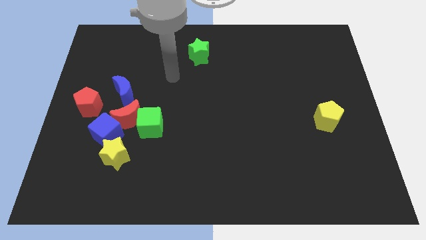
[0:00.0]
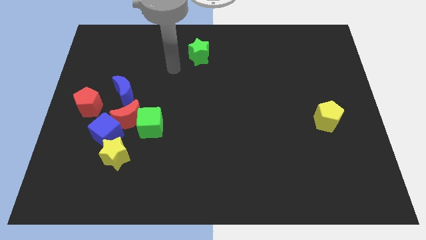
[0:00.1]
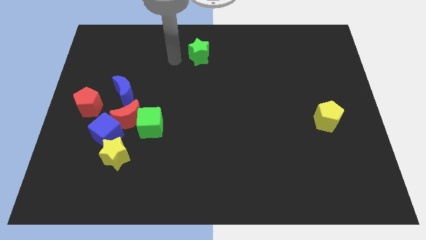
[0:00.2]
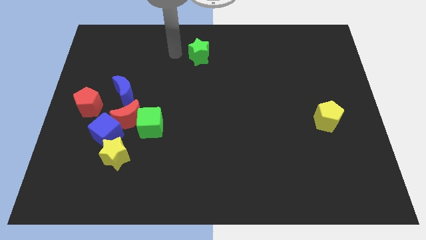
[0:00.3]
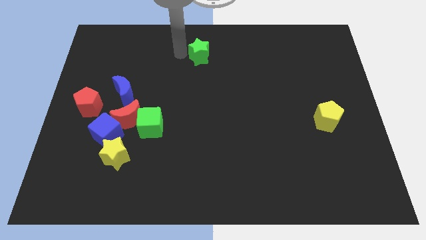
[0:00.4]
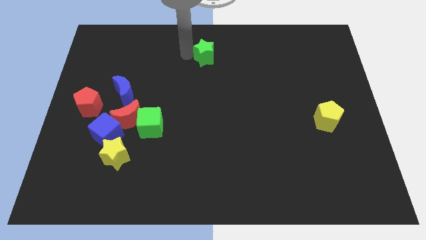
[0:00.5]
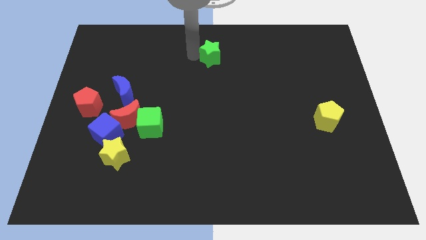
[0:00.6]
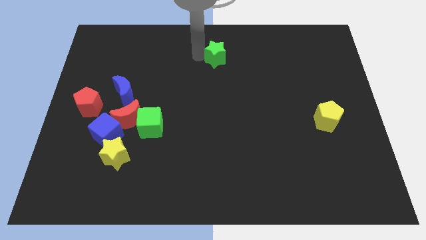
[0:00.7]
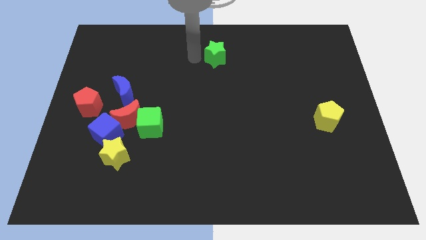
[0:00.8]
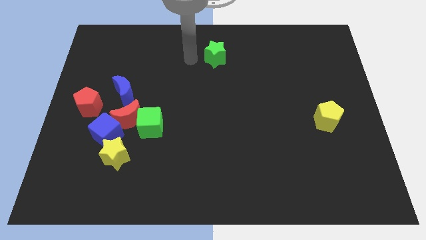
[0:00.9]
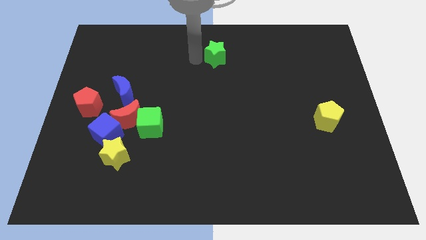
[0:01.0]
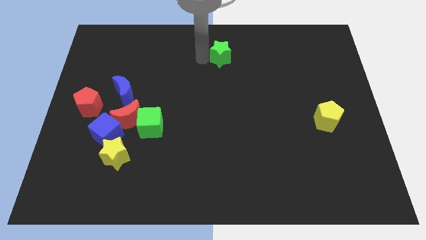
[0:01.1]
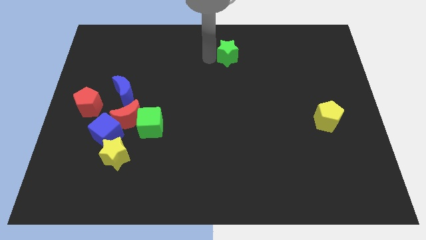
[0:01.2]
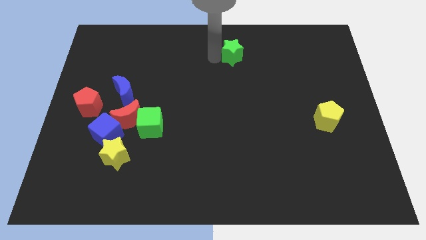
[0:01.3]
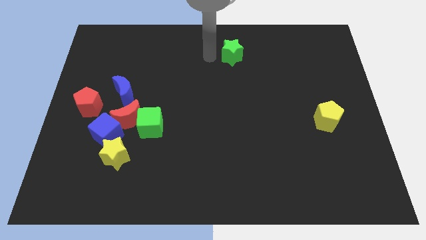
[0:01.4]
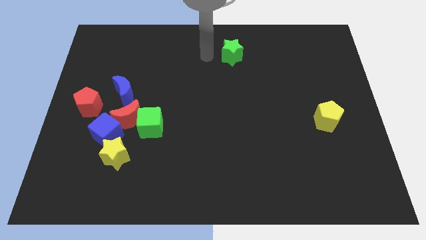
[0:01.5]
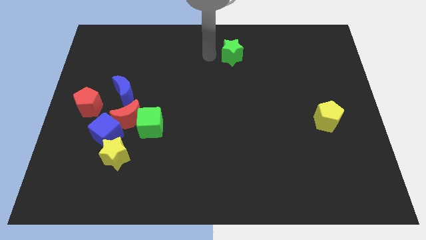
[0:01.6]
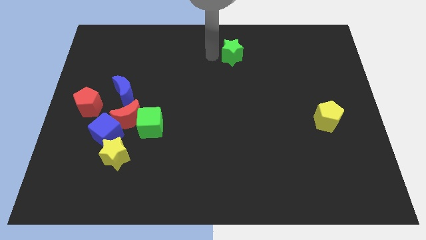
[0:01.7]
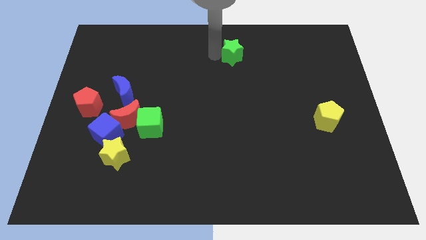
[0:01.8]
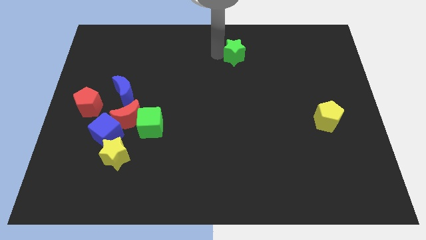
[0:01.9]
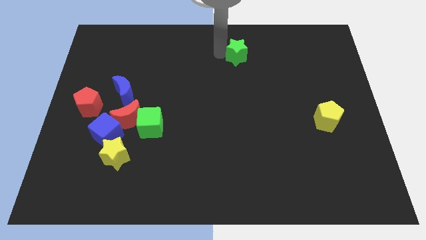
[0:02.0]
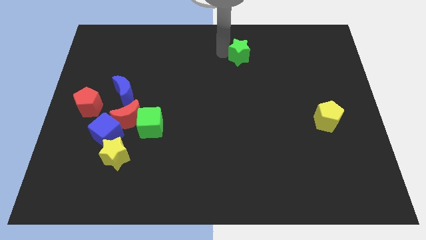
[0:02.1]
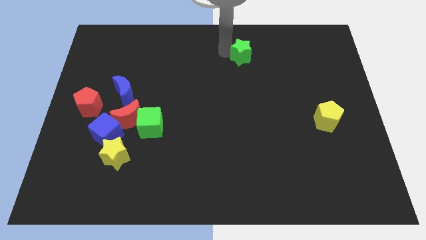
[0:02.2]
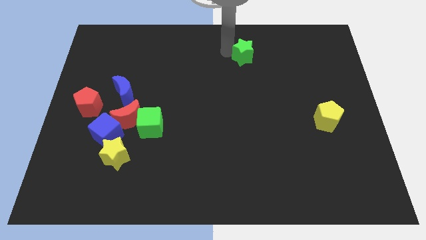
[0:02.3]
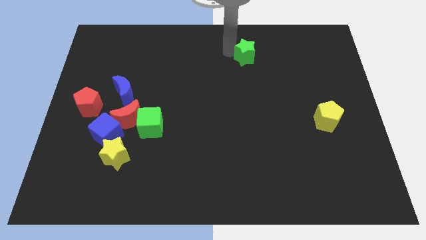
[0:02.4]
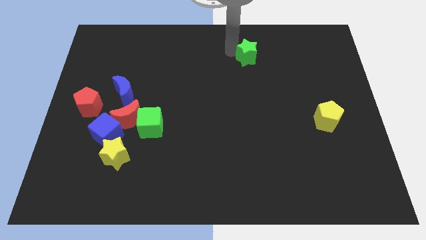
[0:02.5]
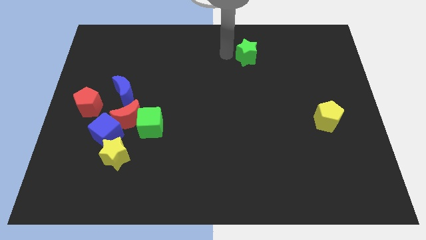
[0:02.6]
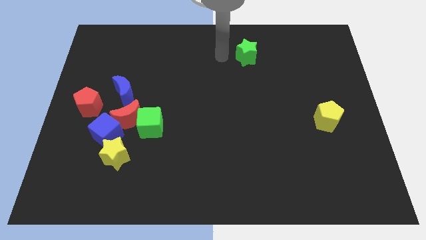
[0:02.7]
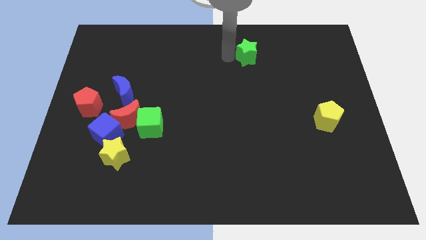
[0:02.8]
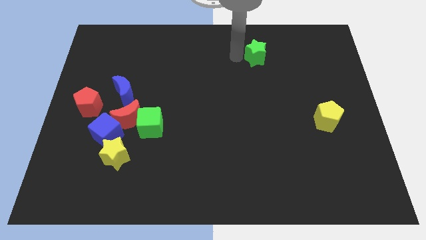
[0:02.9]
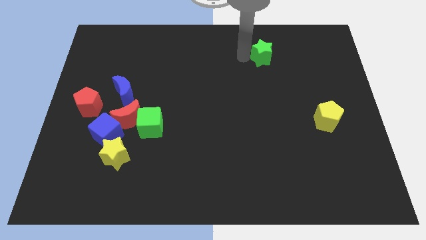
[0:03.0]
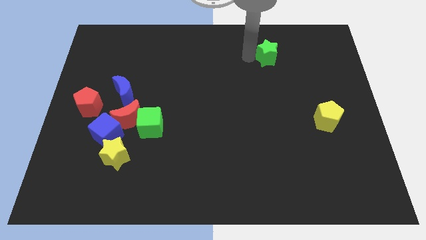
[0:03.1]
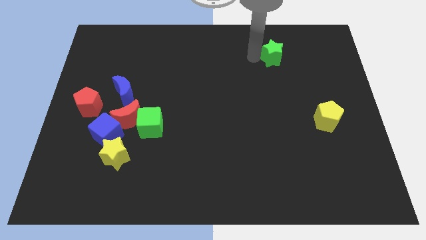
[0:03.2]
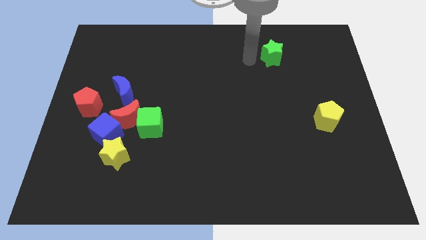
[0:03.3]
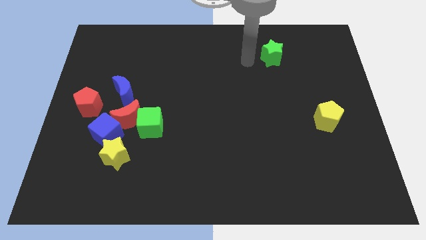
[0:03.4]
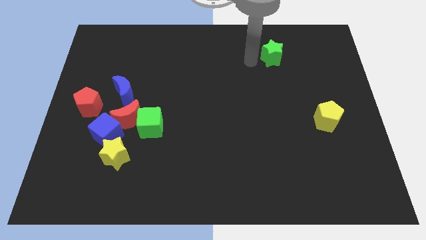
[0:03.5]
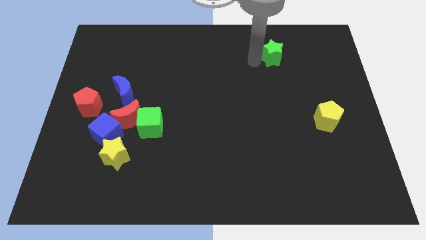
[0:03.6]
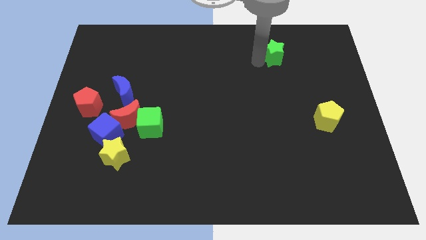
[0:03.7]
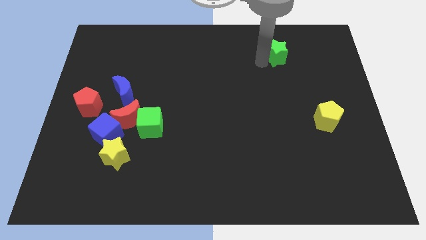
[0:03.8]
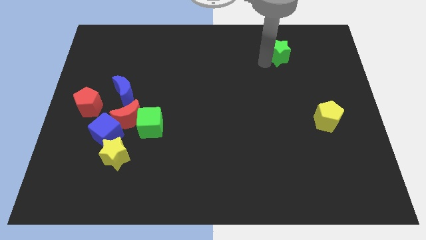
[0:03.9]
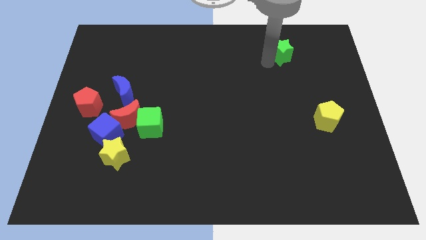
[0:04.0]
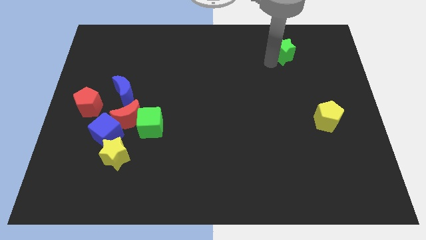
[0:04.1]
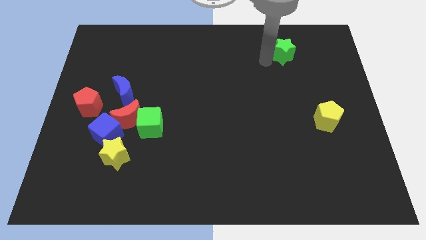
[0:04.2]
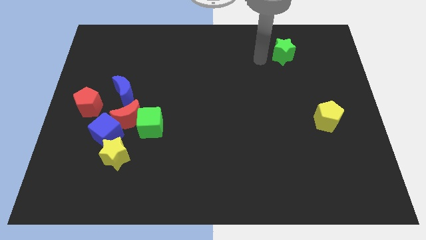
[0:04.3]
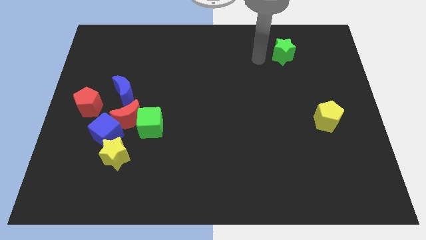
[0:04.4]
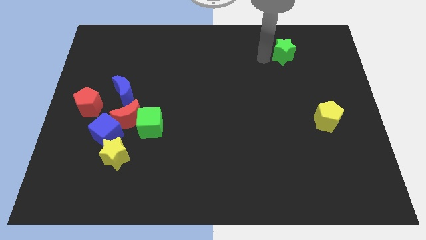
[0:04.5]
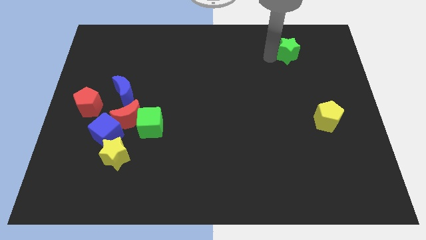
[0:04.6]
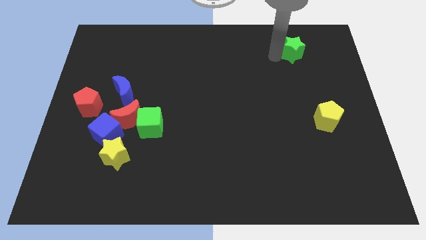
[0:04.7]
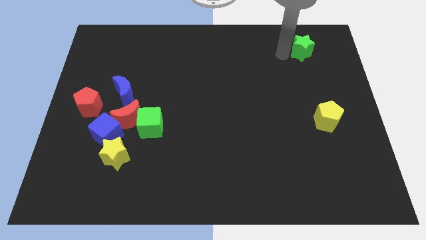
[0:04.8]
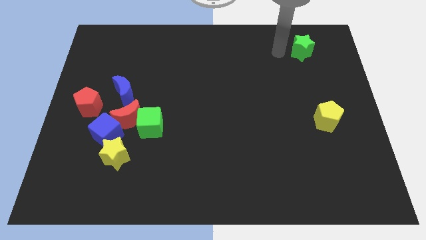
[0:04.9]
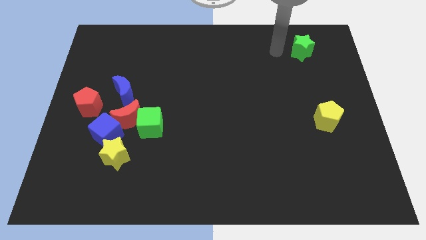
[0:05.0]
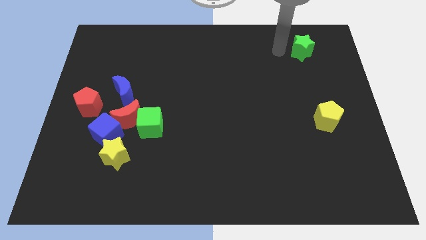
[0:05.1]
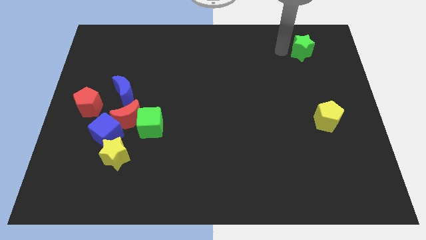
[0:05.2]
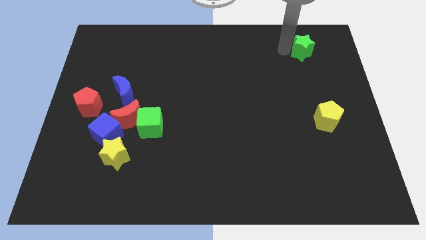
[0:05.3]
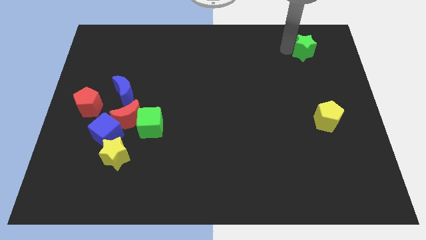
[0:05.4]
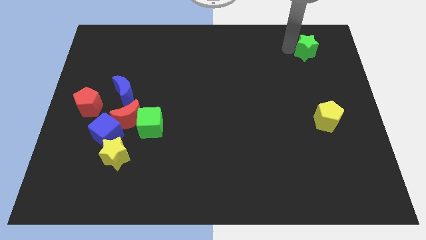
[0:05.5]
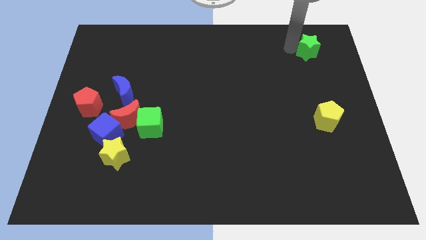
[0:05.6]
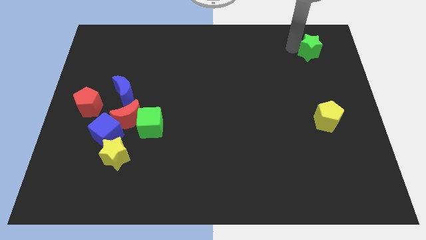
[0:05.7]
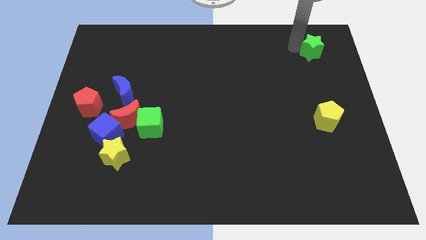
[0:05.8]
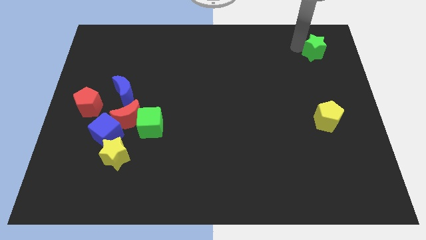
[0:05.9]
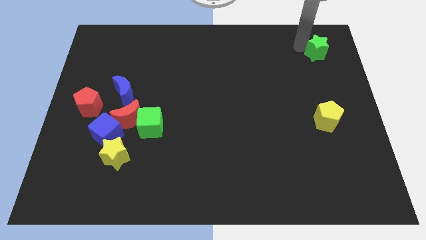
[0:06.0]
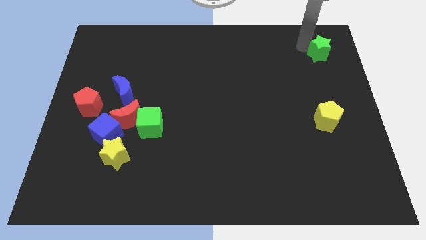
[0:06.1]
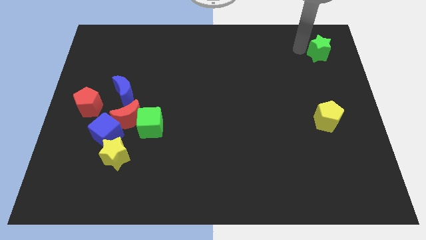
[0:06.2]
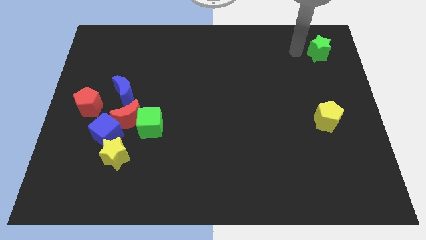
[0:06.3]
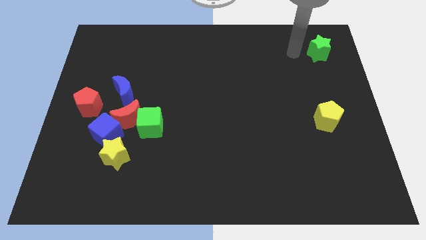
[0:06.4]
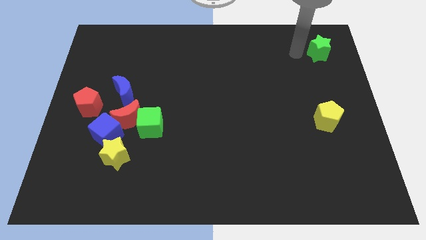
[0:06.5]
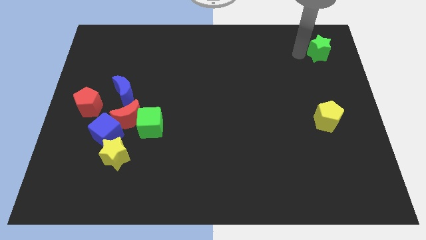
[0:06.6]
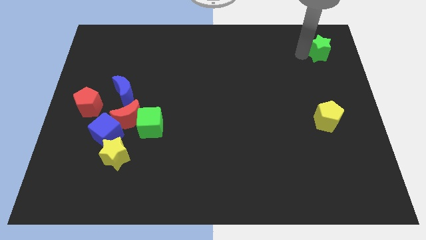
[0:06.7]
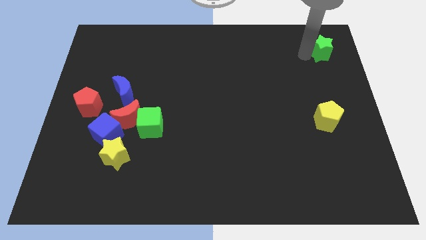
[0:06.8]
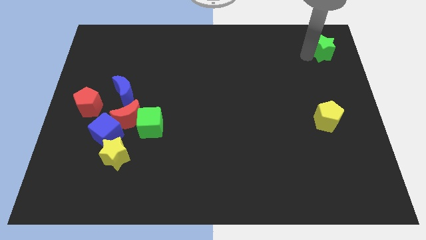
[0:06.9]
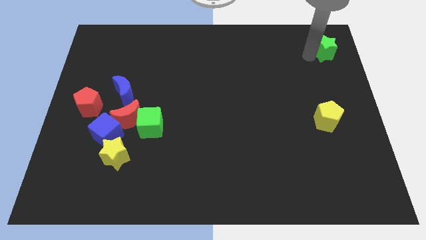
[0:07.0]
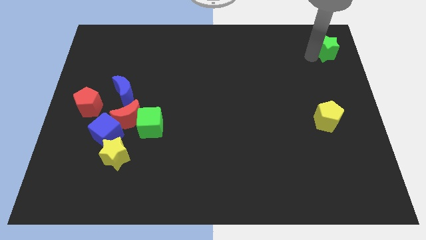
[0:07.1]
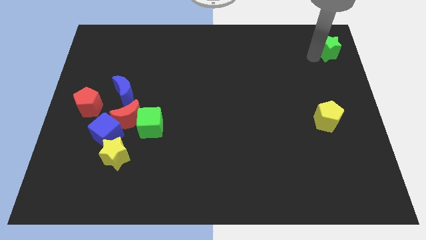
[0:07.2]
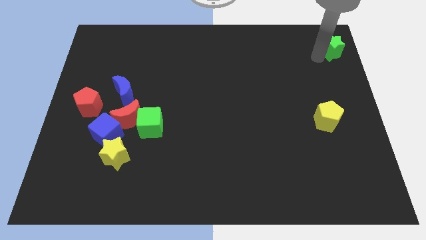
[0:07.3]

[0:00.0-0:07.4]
slide the green star to the top right of the board
